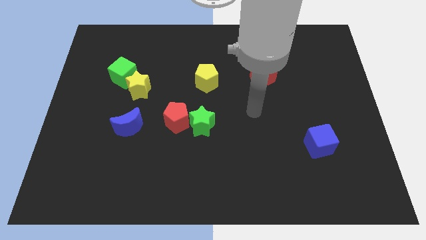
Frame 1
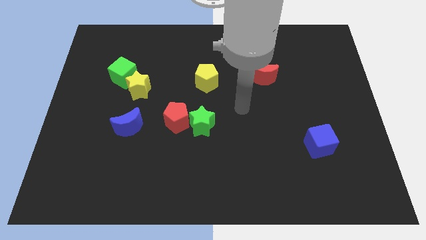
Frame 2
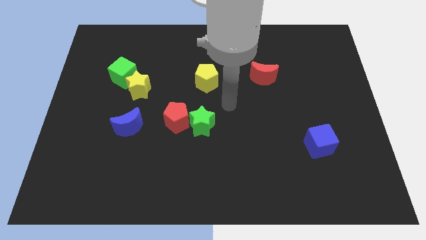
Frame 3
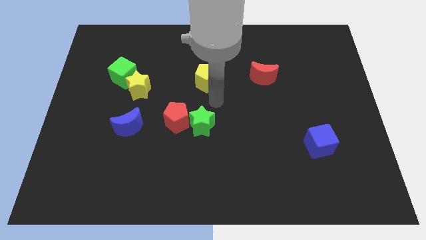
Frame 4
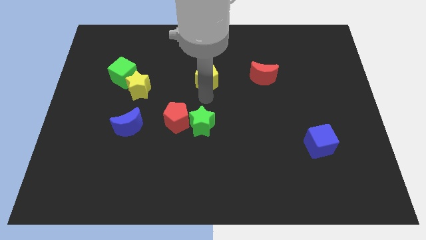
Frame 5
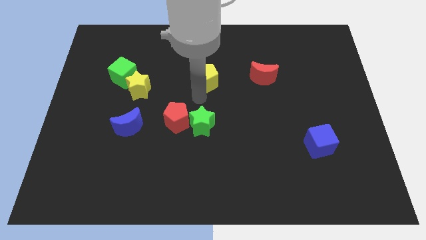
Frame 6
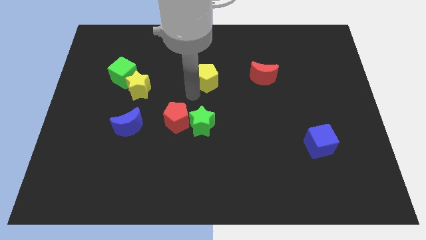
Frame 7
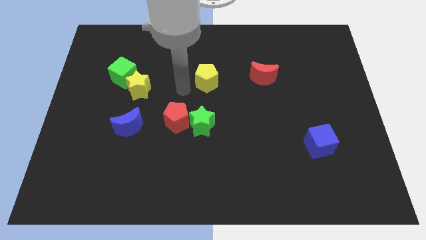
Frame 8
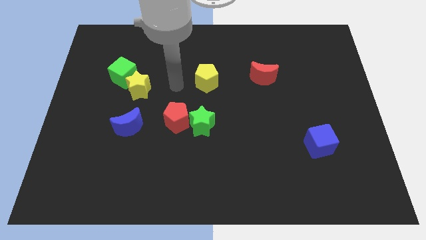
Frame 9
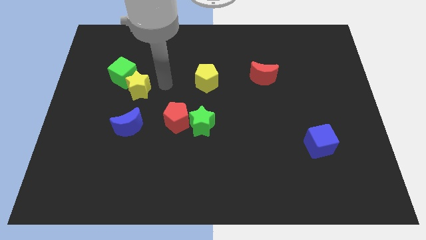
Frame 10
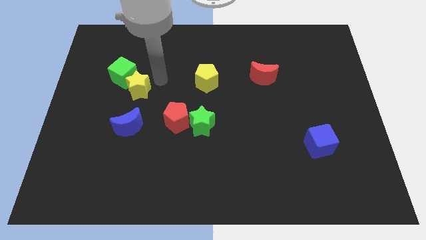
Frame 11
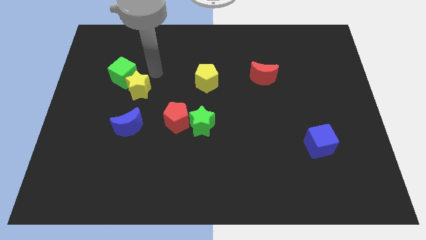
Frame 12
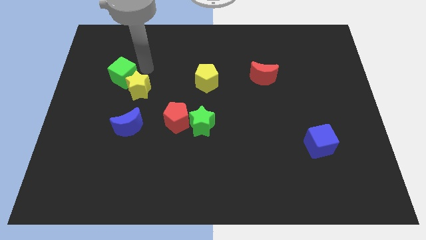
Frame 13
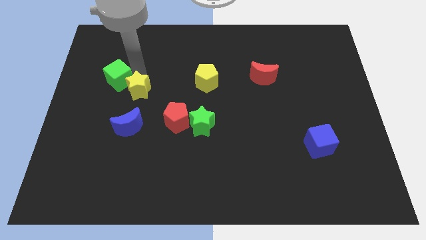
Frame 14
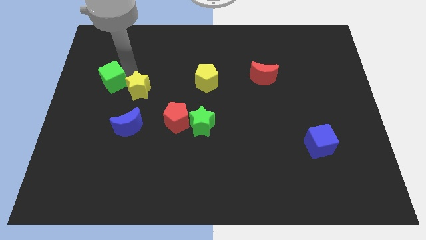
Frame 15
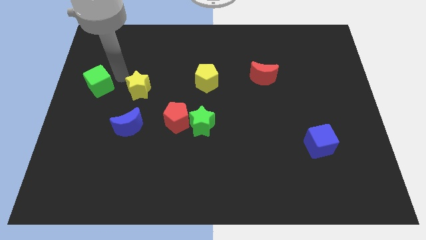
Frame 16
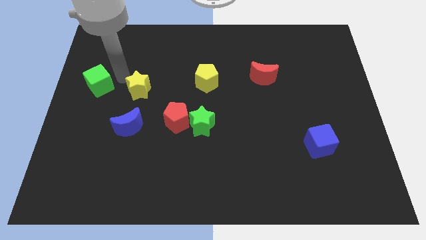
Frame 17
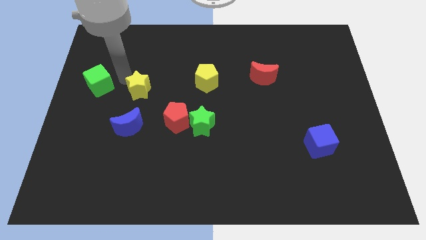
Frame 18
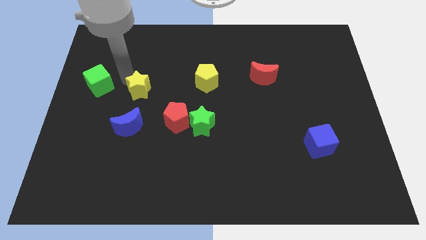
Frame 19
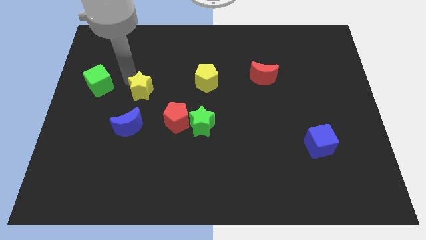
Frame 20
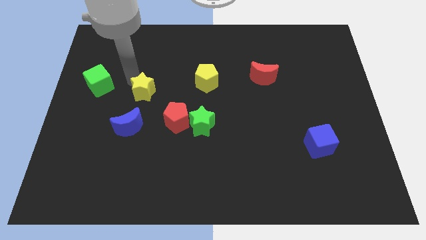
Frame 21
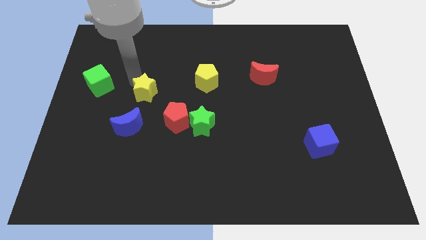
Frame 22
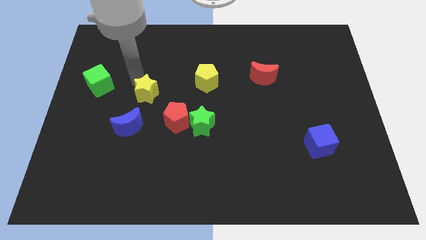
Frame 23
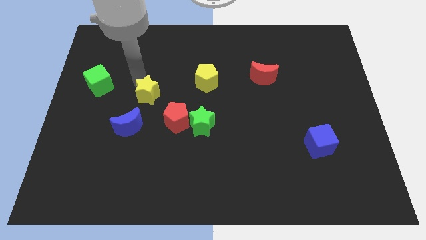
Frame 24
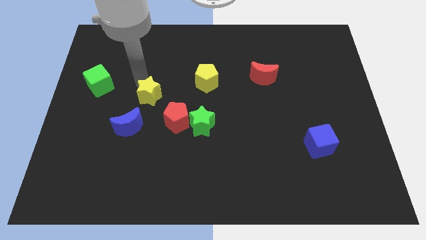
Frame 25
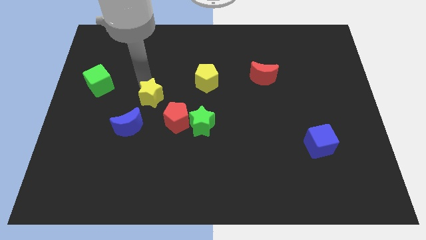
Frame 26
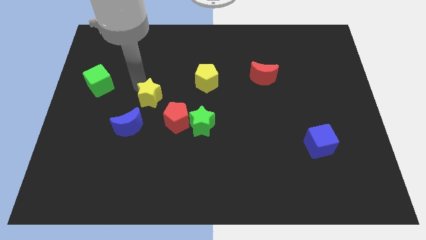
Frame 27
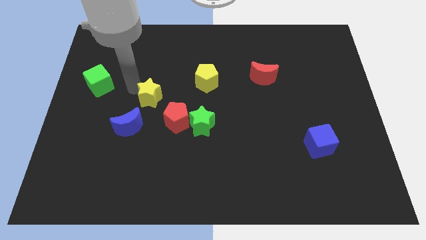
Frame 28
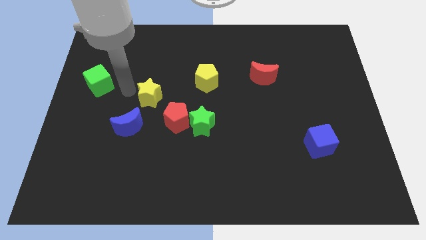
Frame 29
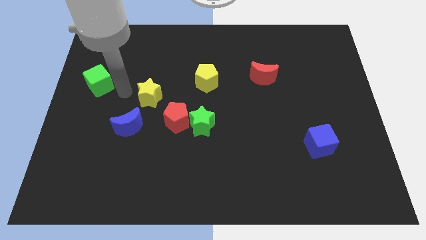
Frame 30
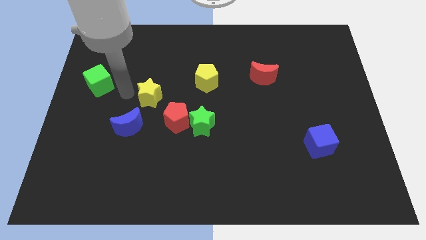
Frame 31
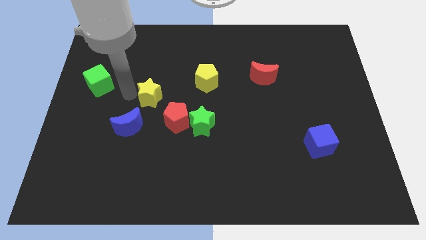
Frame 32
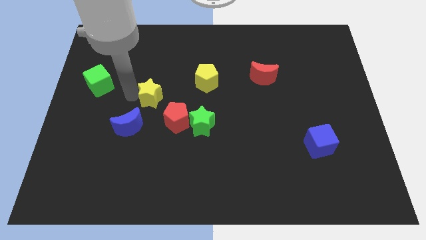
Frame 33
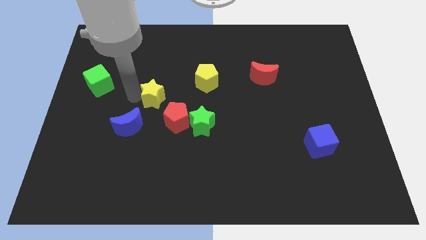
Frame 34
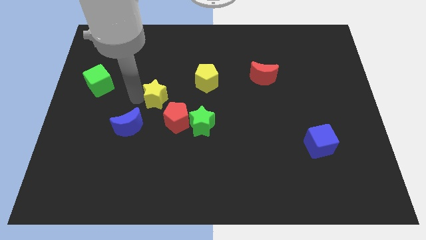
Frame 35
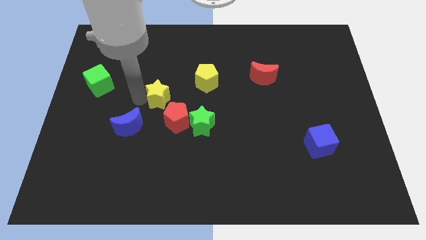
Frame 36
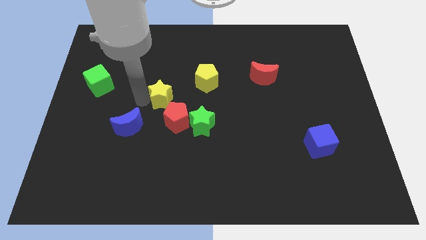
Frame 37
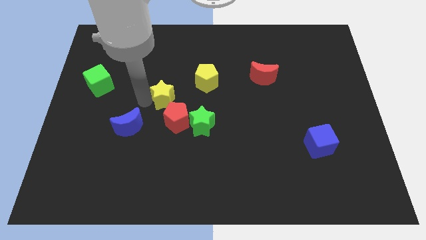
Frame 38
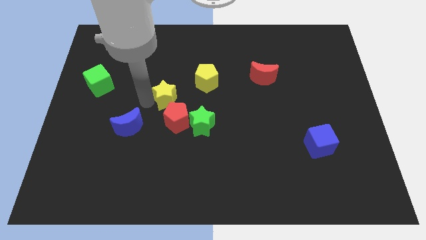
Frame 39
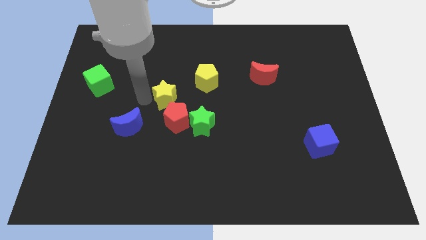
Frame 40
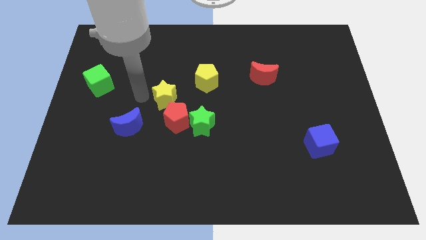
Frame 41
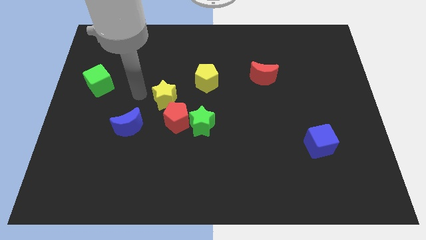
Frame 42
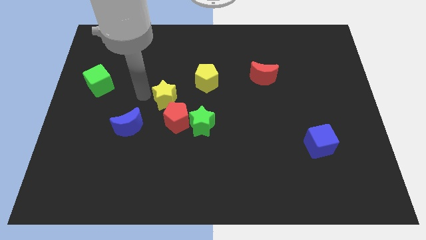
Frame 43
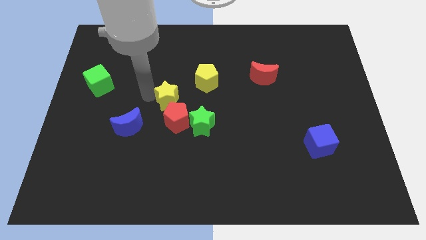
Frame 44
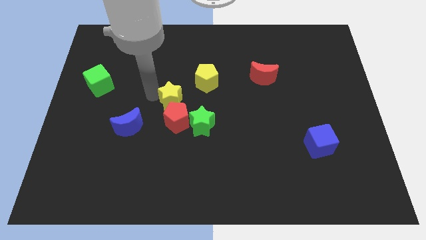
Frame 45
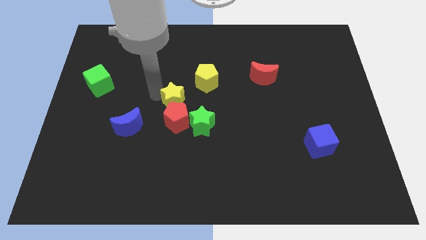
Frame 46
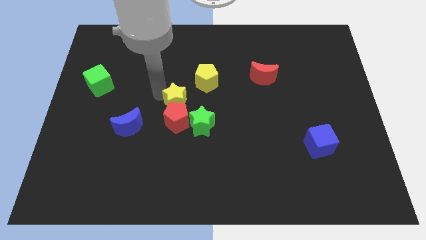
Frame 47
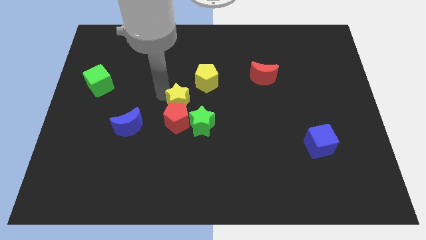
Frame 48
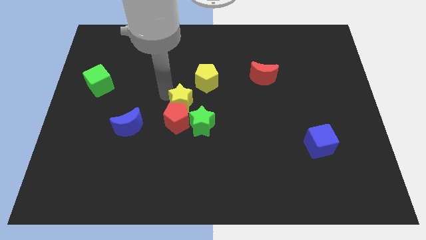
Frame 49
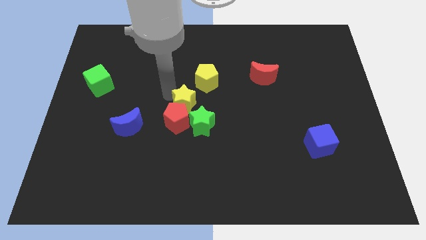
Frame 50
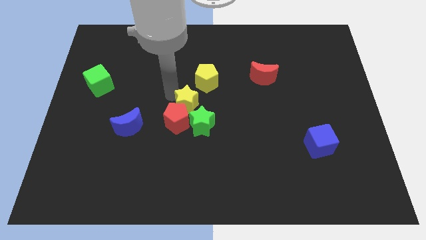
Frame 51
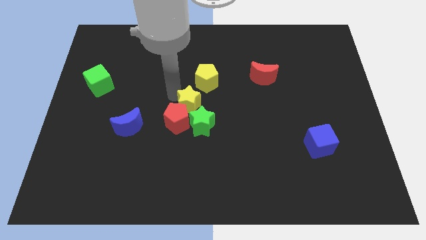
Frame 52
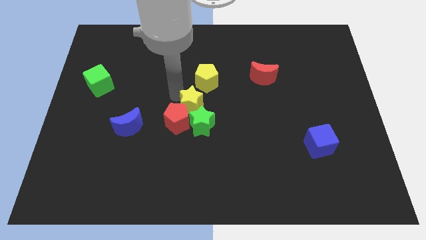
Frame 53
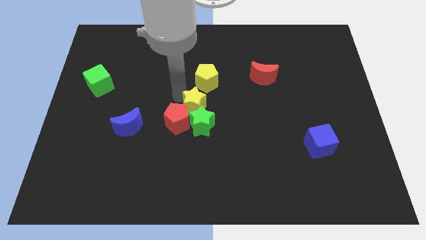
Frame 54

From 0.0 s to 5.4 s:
move the yellow star next to the green star

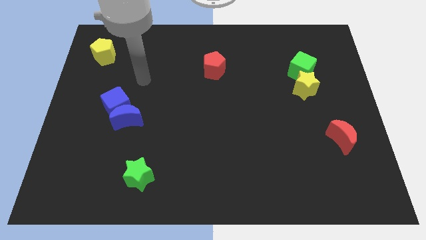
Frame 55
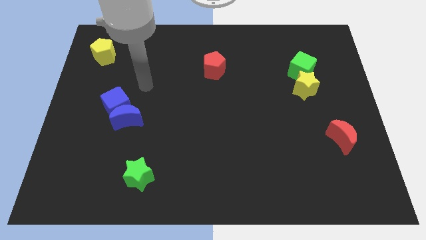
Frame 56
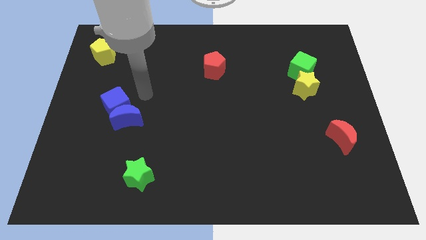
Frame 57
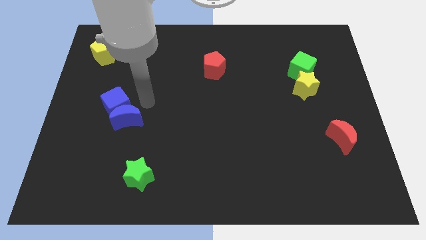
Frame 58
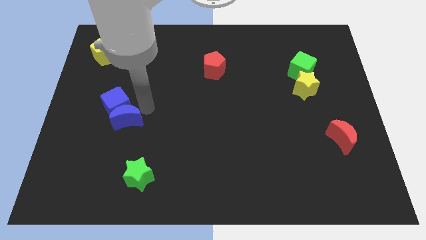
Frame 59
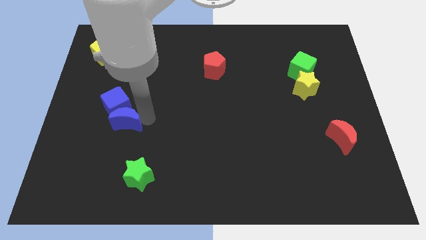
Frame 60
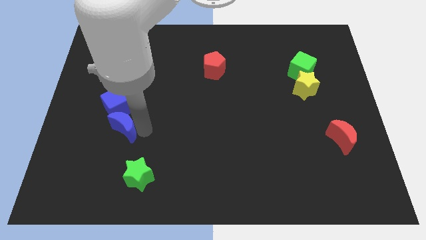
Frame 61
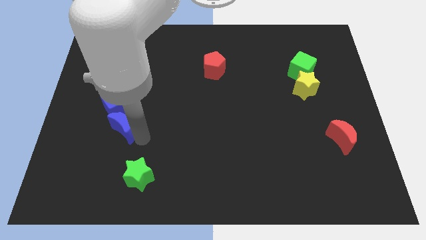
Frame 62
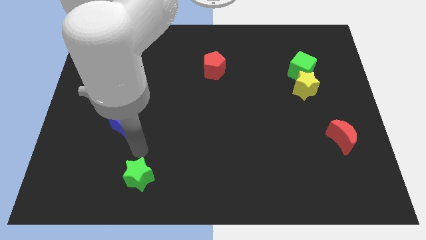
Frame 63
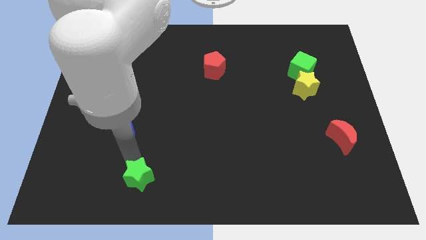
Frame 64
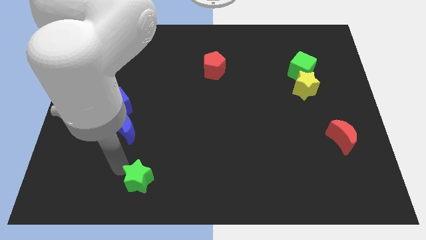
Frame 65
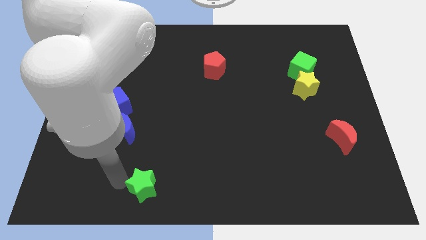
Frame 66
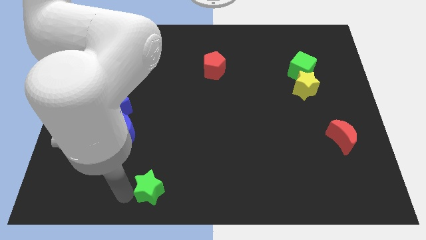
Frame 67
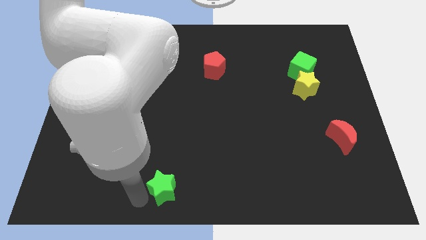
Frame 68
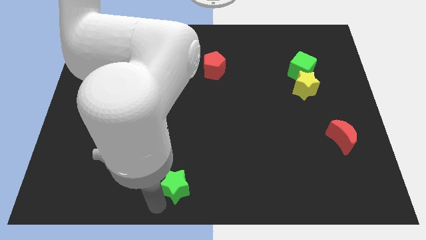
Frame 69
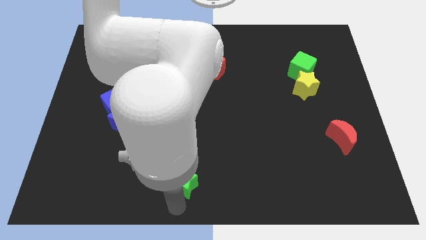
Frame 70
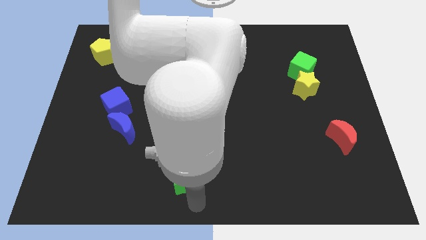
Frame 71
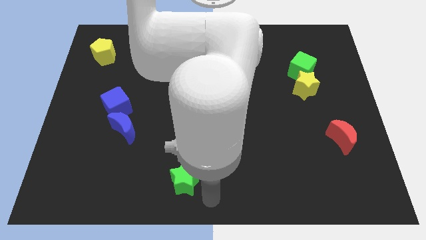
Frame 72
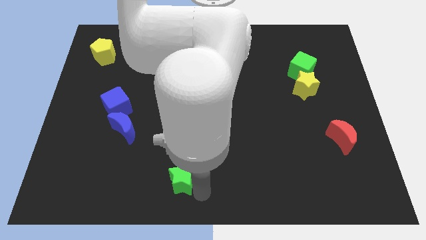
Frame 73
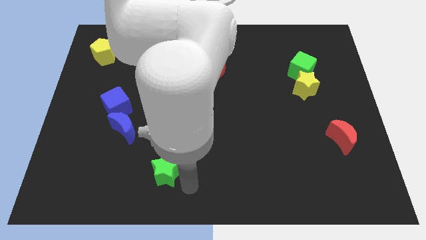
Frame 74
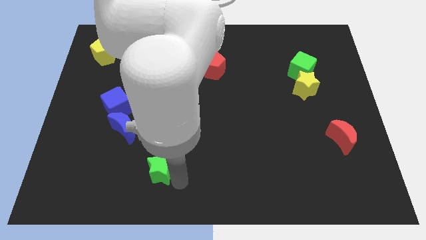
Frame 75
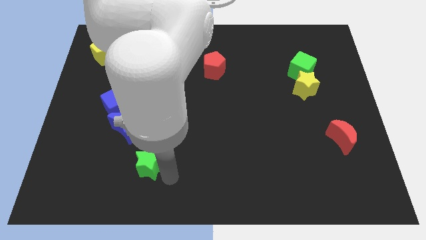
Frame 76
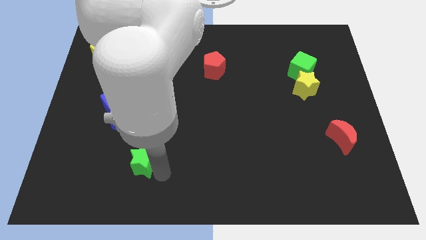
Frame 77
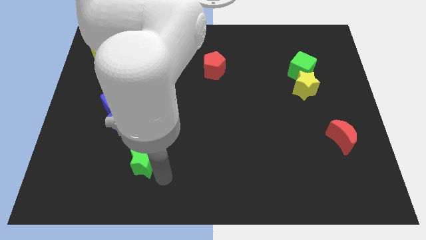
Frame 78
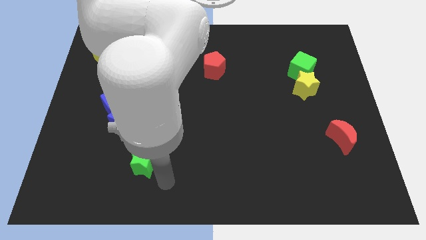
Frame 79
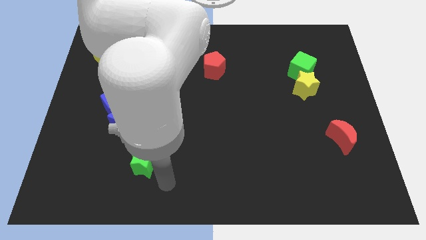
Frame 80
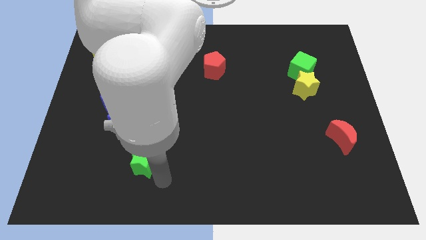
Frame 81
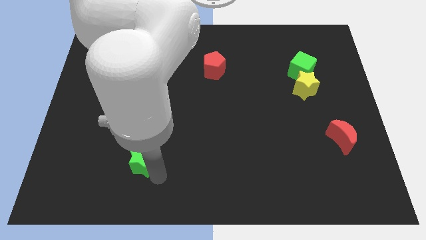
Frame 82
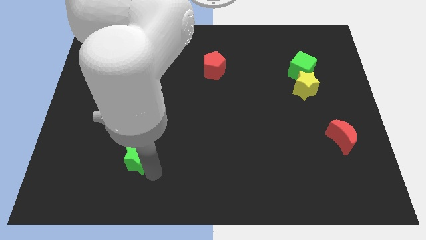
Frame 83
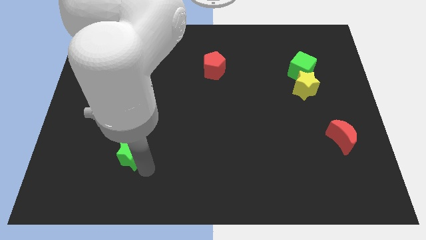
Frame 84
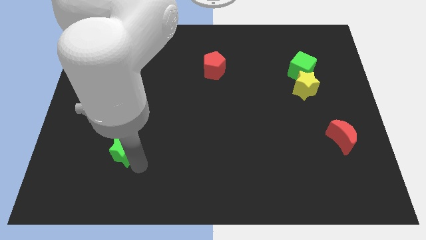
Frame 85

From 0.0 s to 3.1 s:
put the green star towards the blue moon
